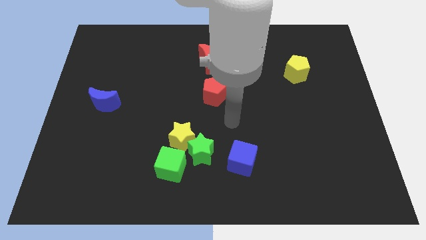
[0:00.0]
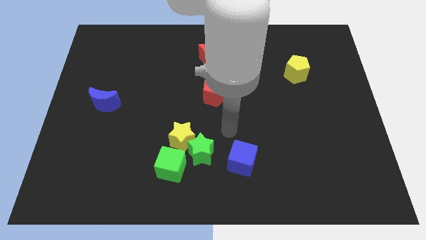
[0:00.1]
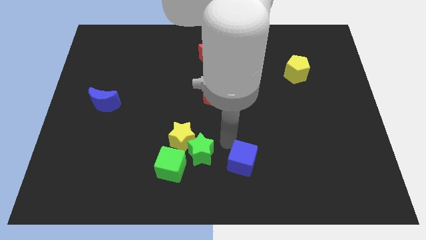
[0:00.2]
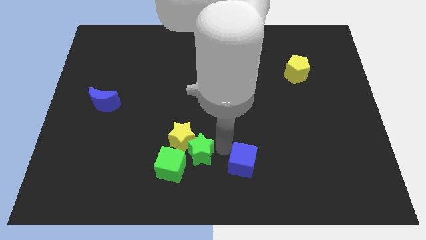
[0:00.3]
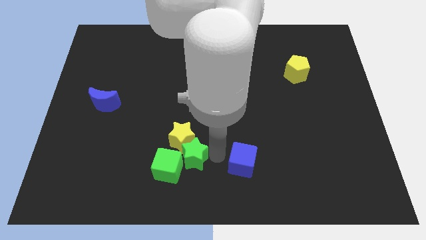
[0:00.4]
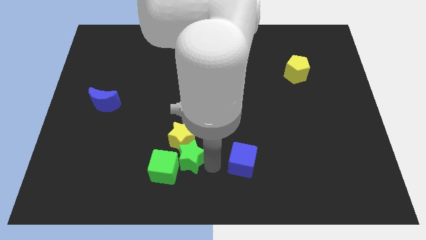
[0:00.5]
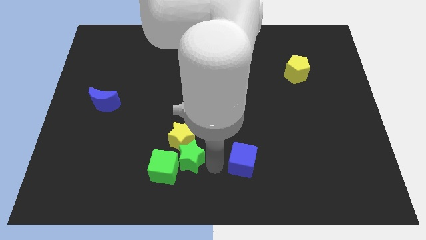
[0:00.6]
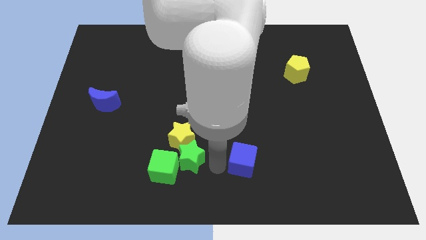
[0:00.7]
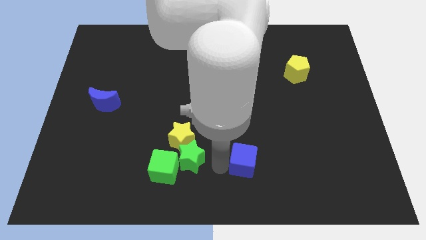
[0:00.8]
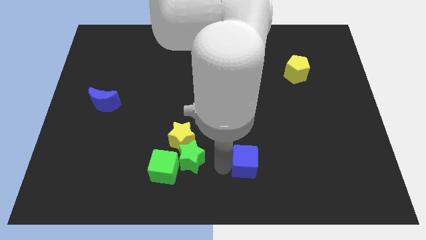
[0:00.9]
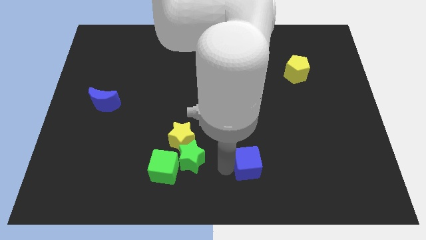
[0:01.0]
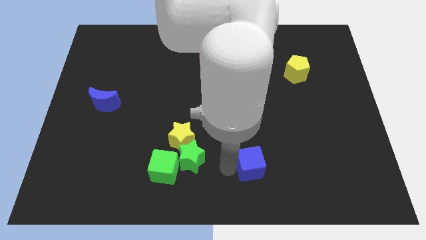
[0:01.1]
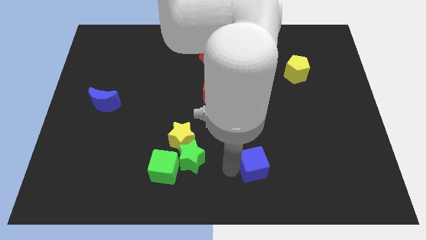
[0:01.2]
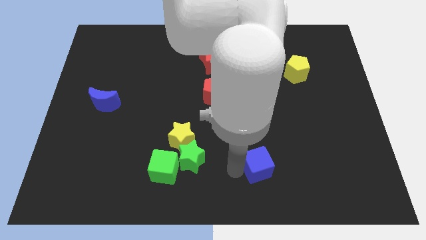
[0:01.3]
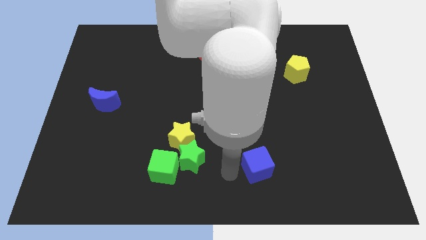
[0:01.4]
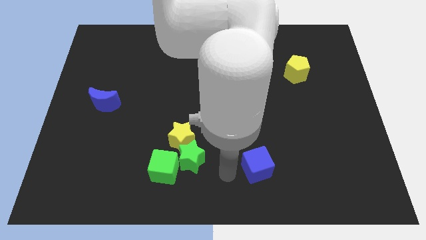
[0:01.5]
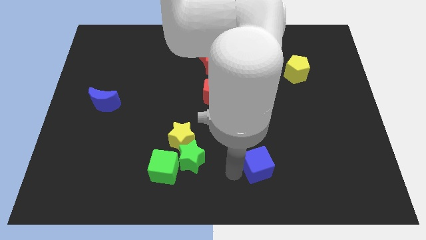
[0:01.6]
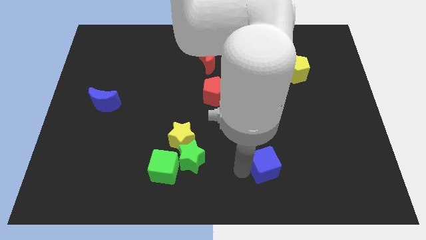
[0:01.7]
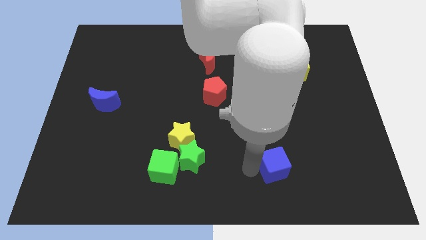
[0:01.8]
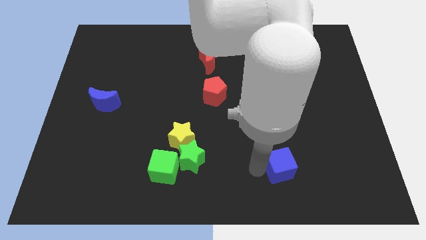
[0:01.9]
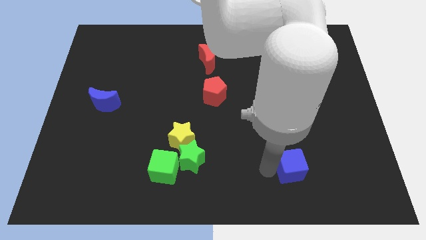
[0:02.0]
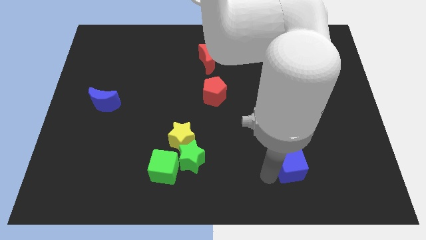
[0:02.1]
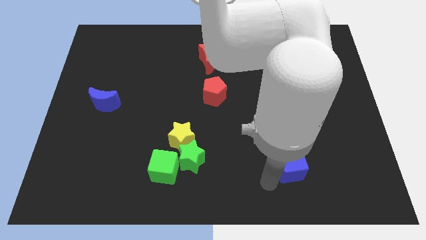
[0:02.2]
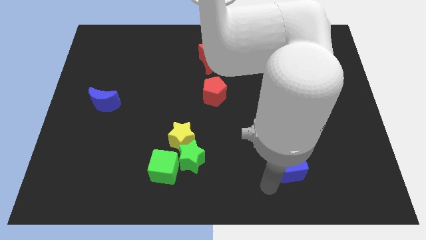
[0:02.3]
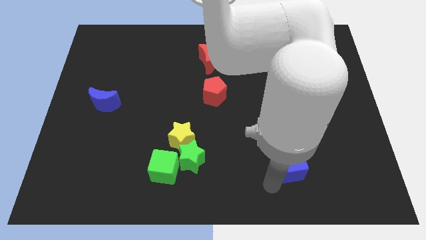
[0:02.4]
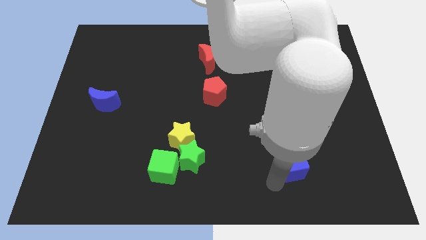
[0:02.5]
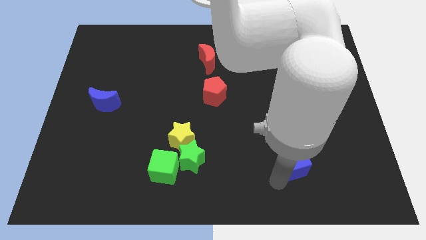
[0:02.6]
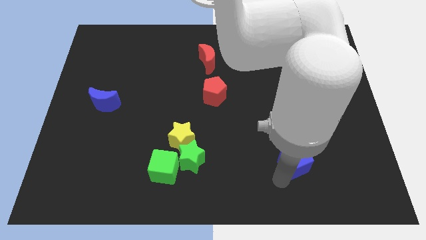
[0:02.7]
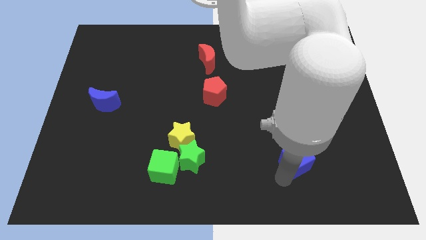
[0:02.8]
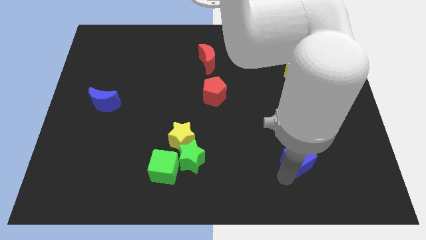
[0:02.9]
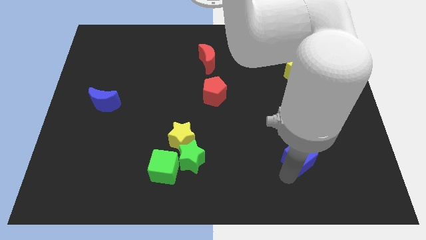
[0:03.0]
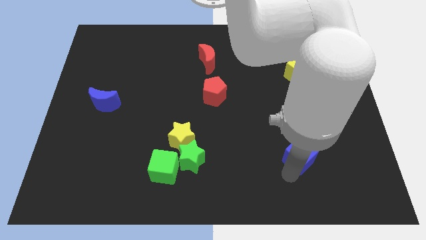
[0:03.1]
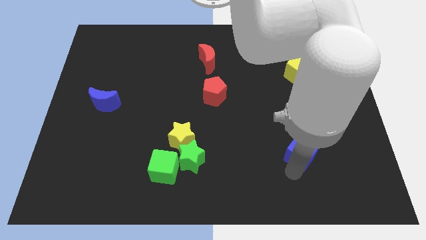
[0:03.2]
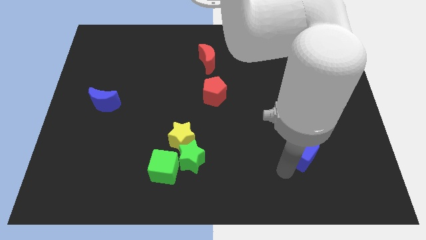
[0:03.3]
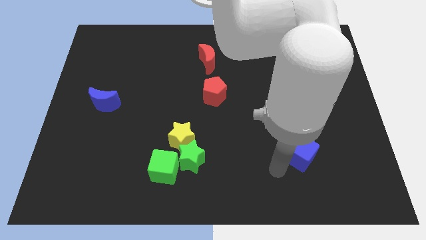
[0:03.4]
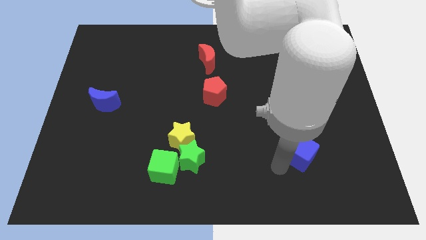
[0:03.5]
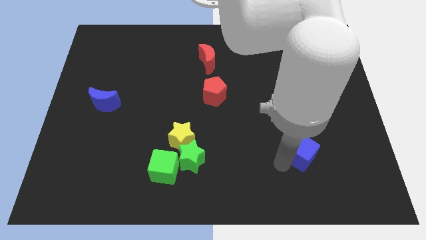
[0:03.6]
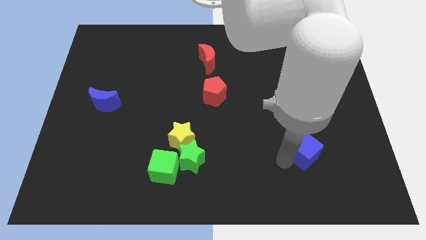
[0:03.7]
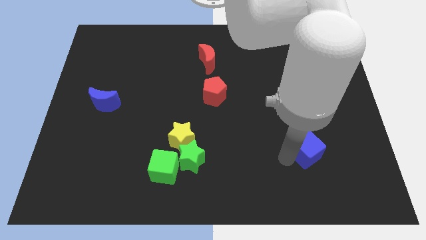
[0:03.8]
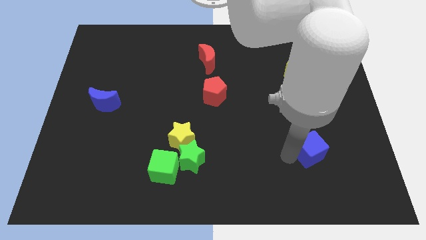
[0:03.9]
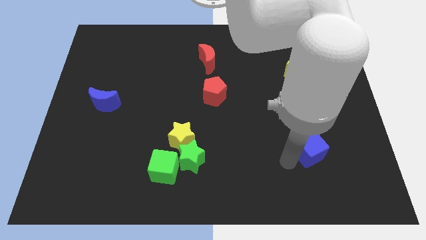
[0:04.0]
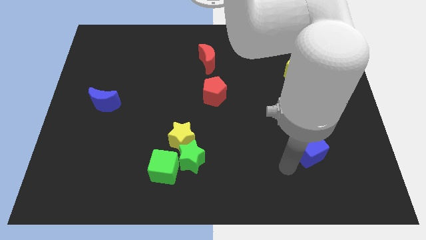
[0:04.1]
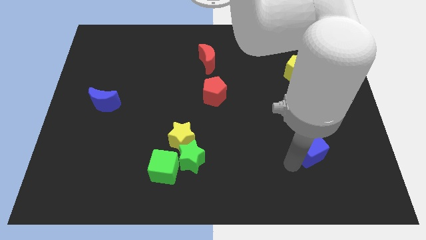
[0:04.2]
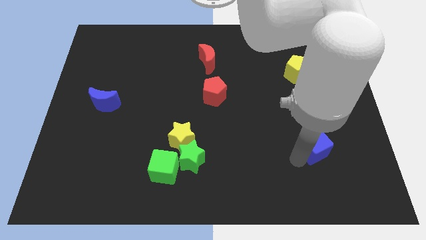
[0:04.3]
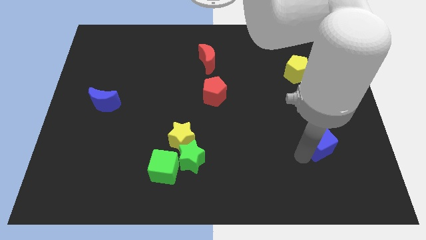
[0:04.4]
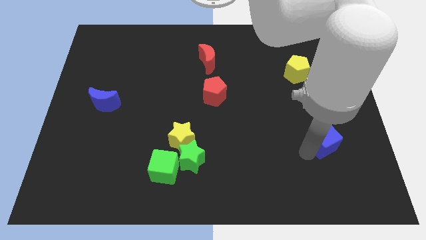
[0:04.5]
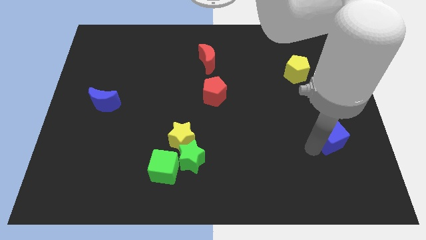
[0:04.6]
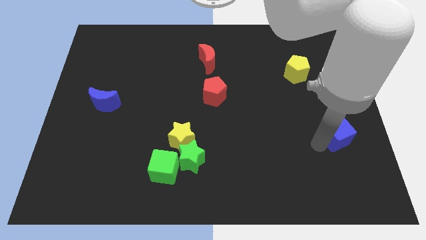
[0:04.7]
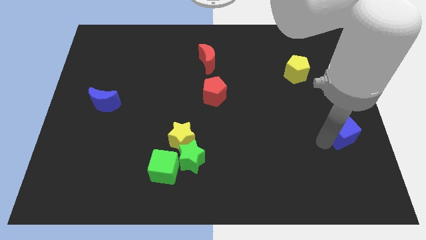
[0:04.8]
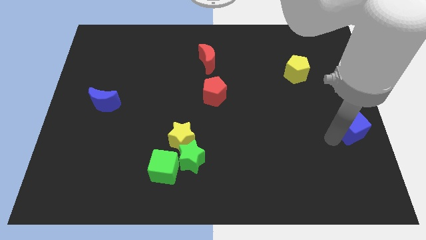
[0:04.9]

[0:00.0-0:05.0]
push the blue cube to the center right

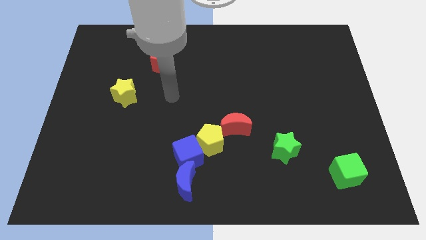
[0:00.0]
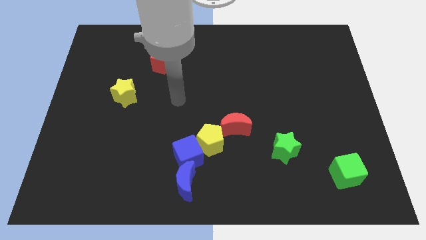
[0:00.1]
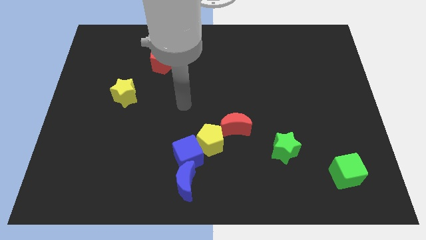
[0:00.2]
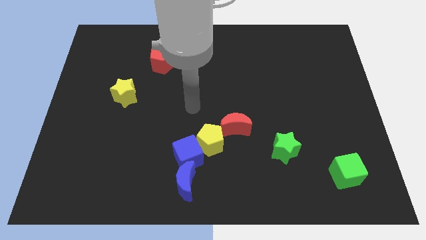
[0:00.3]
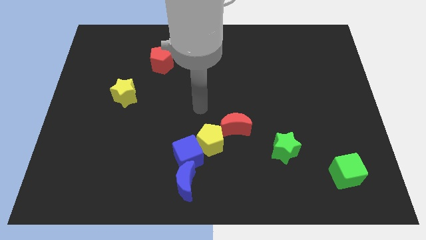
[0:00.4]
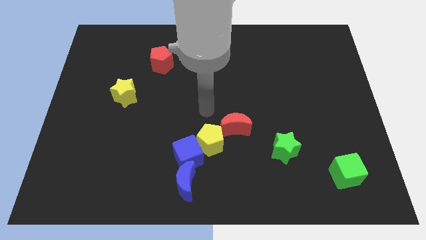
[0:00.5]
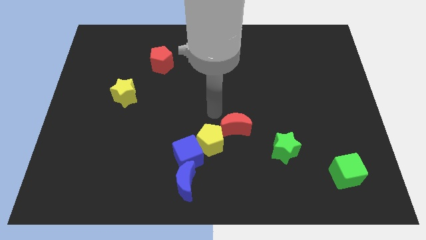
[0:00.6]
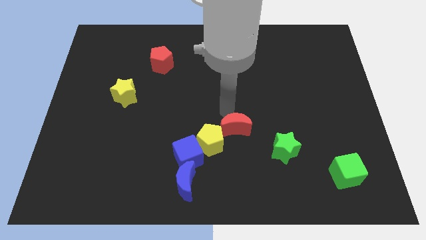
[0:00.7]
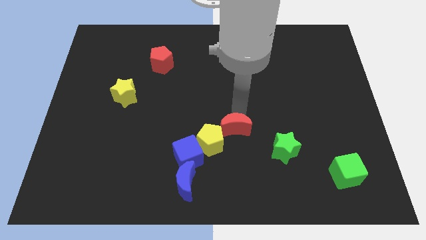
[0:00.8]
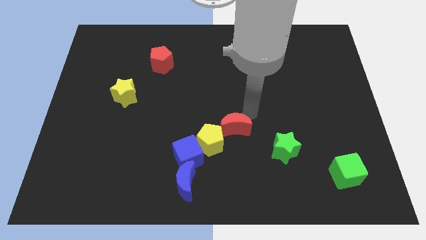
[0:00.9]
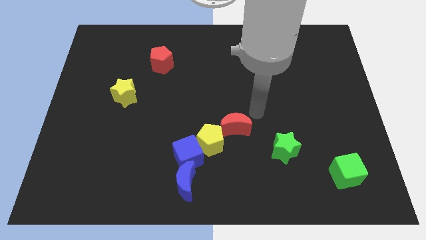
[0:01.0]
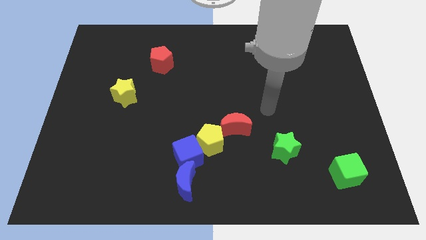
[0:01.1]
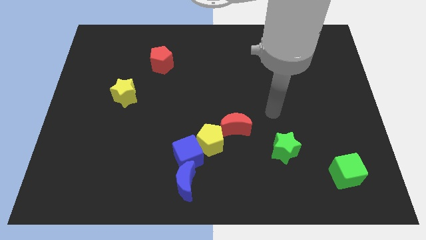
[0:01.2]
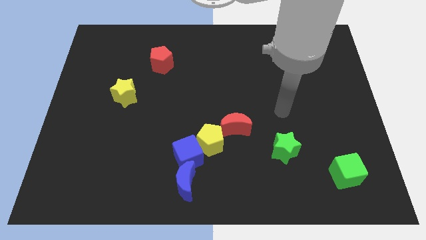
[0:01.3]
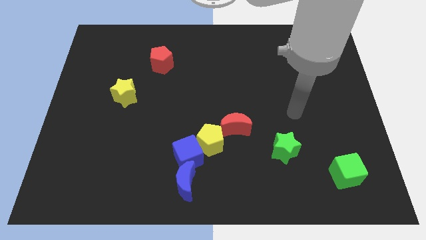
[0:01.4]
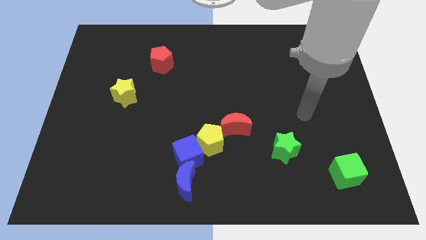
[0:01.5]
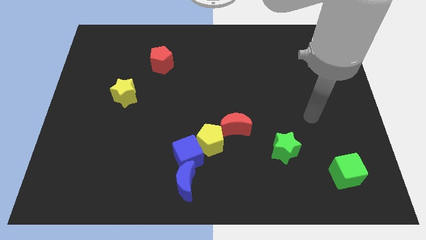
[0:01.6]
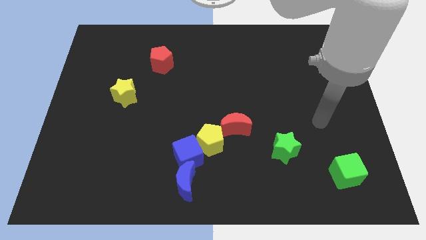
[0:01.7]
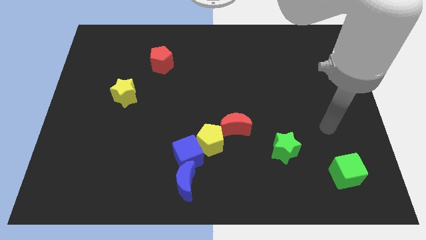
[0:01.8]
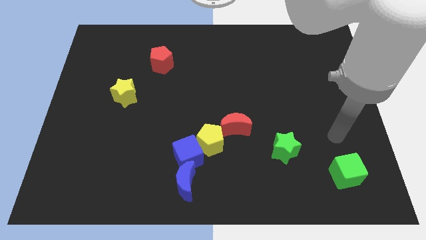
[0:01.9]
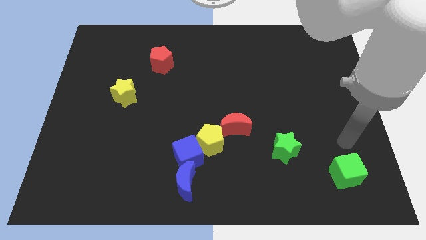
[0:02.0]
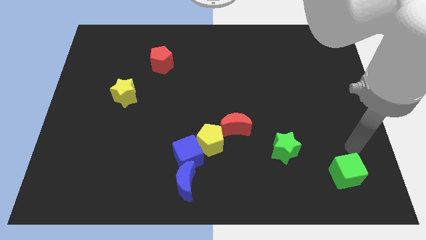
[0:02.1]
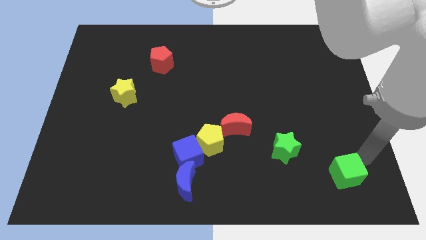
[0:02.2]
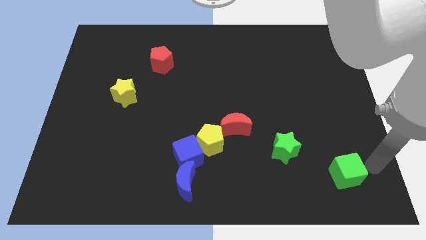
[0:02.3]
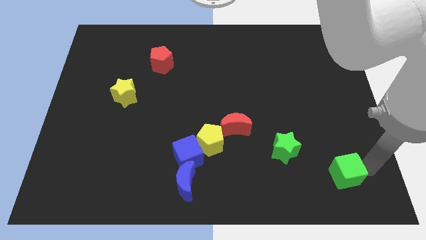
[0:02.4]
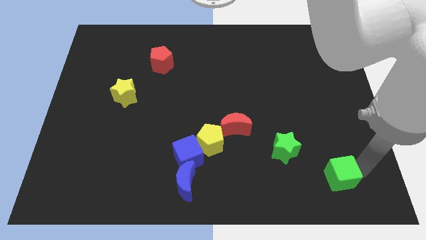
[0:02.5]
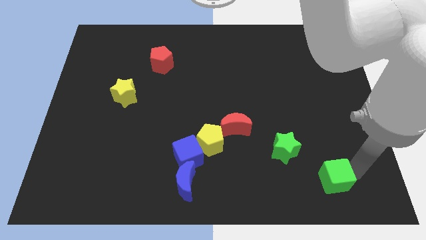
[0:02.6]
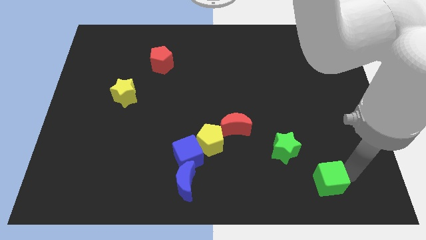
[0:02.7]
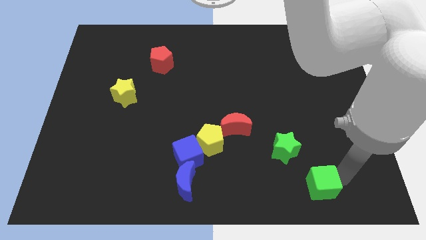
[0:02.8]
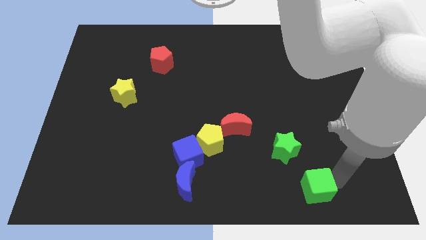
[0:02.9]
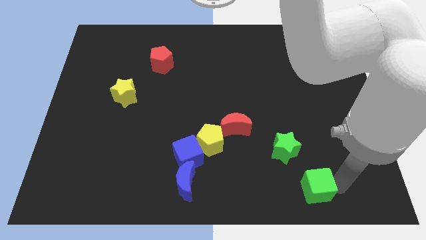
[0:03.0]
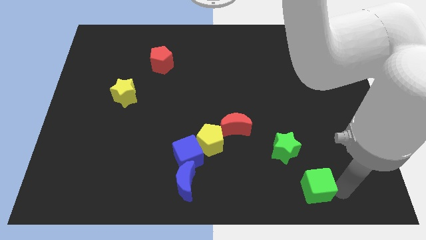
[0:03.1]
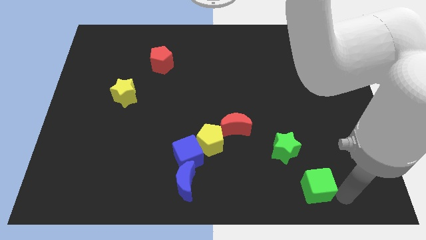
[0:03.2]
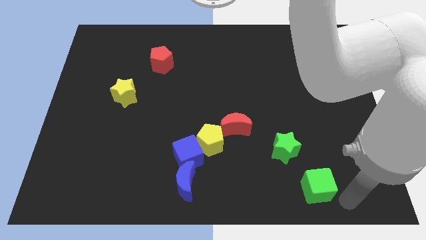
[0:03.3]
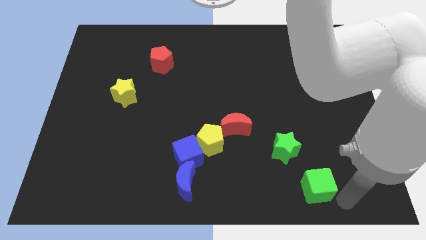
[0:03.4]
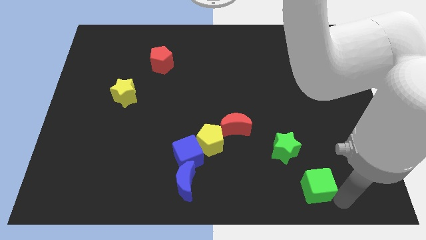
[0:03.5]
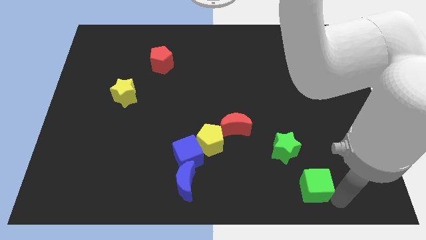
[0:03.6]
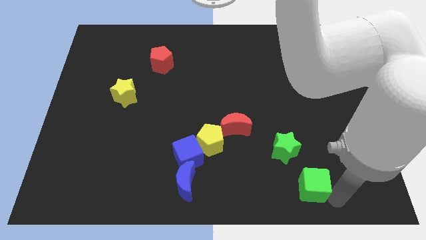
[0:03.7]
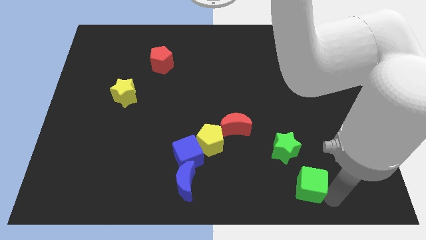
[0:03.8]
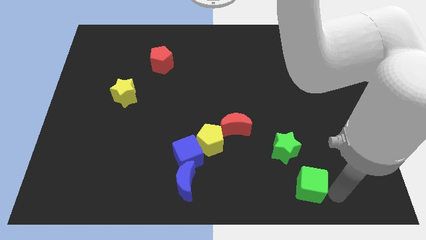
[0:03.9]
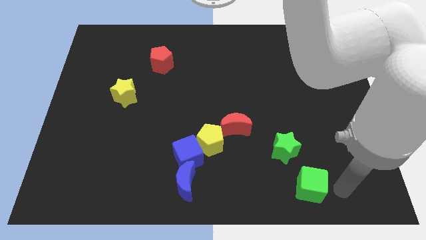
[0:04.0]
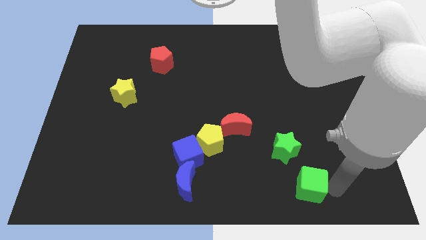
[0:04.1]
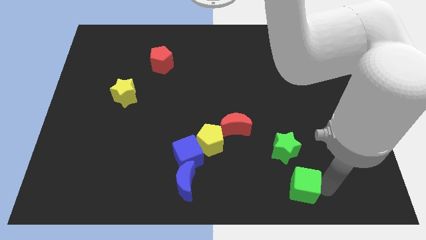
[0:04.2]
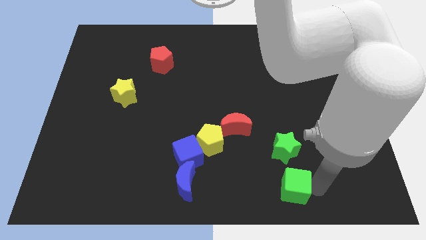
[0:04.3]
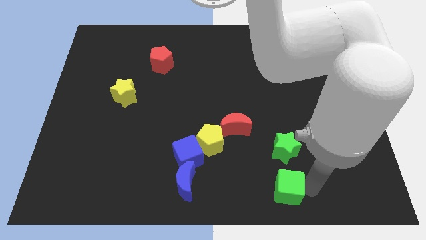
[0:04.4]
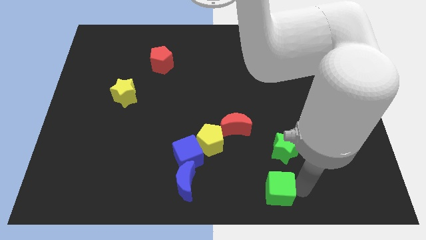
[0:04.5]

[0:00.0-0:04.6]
put the green cube to the bottom
